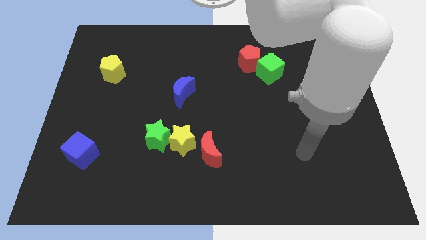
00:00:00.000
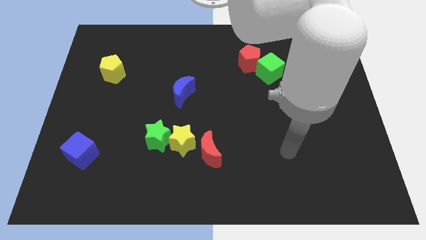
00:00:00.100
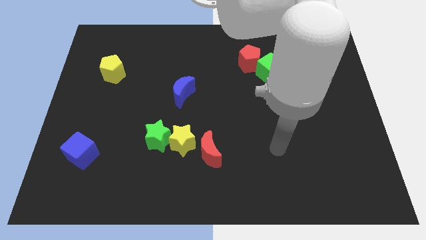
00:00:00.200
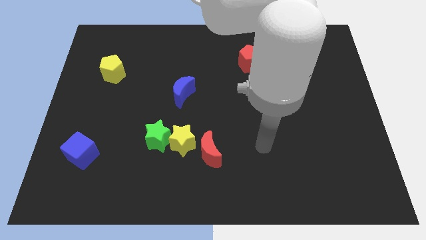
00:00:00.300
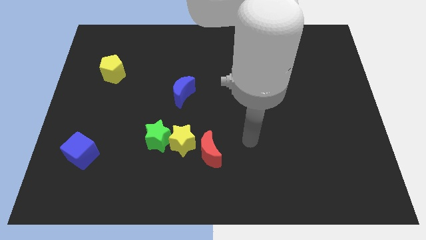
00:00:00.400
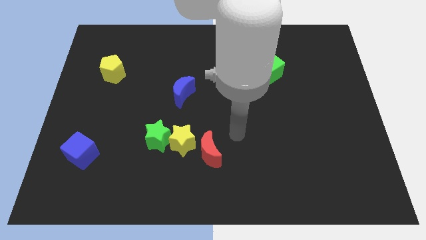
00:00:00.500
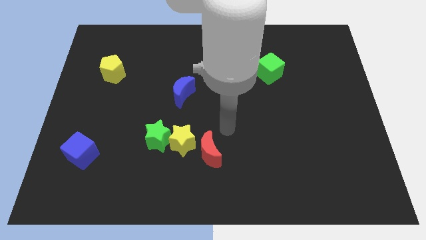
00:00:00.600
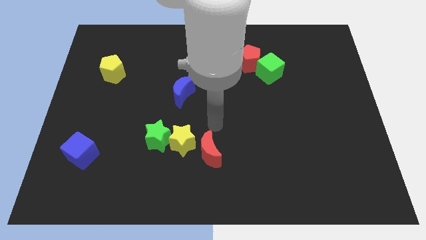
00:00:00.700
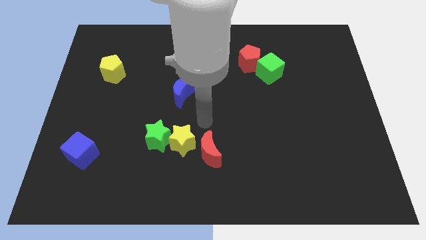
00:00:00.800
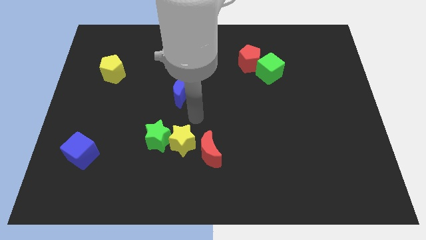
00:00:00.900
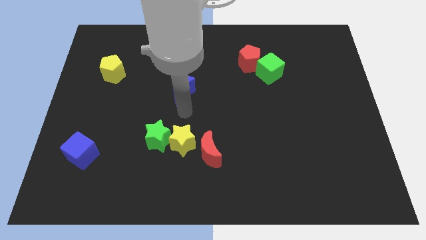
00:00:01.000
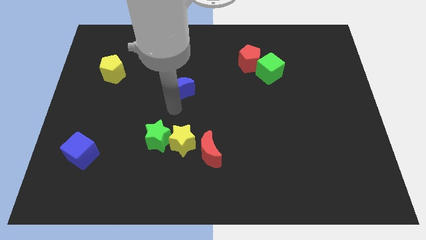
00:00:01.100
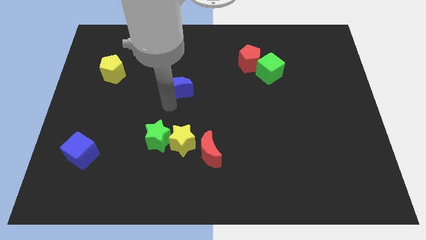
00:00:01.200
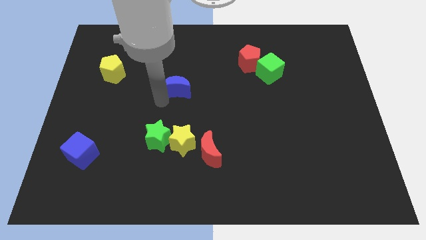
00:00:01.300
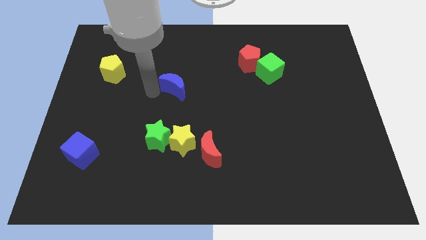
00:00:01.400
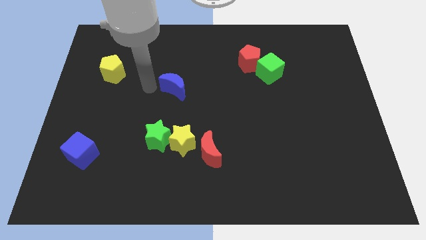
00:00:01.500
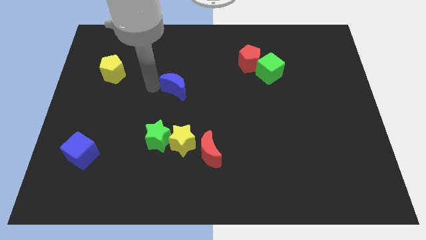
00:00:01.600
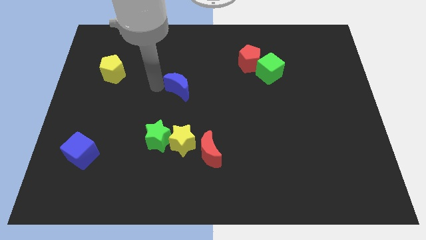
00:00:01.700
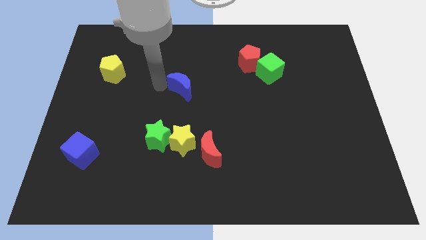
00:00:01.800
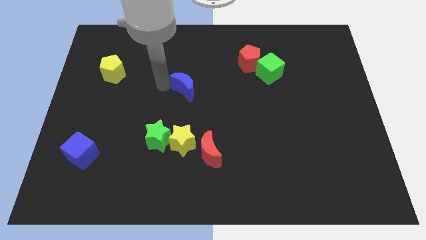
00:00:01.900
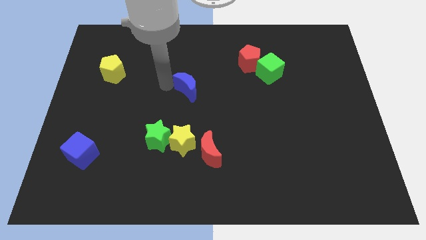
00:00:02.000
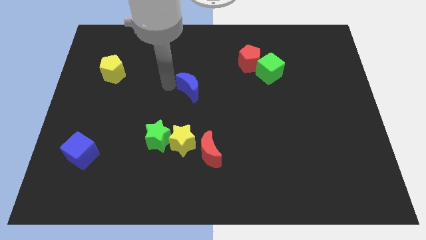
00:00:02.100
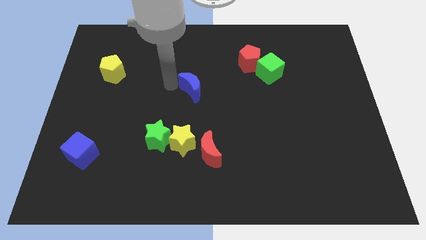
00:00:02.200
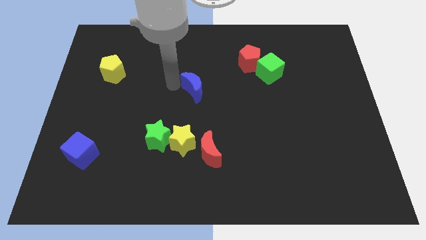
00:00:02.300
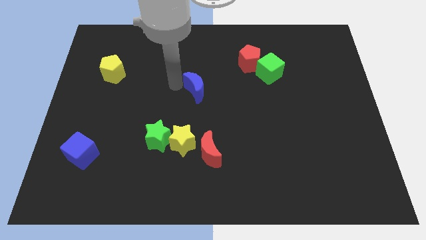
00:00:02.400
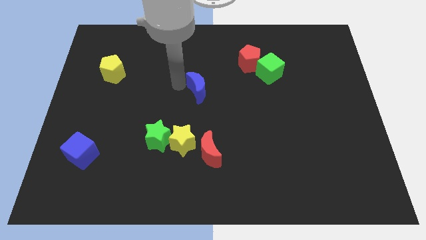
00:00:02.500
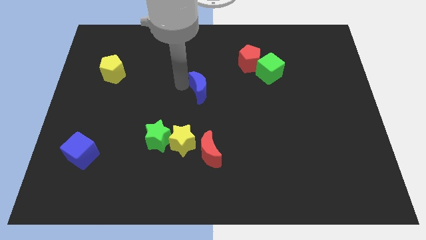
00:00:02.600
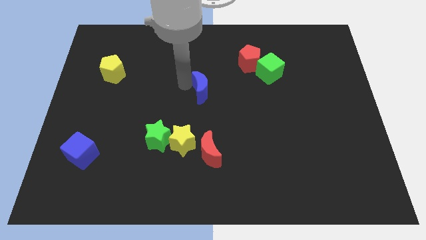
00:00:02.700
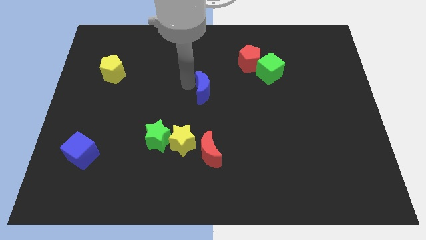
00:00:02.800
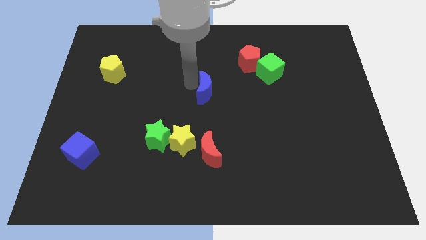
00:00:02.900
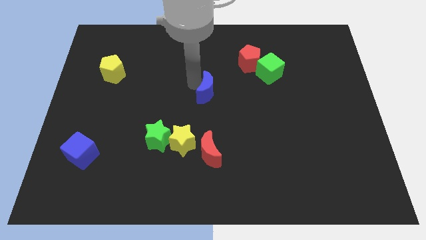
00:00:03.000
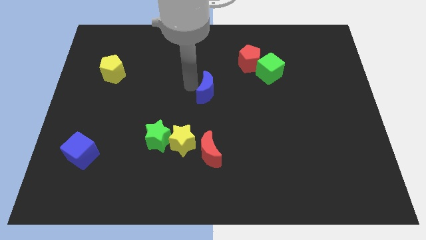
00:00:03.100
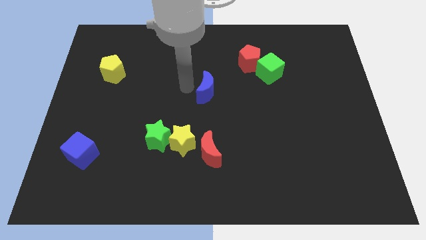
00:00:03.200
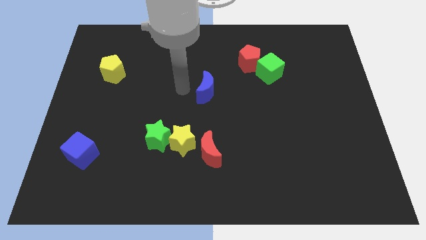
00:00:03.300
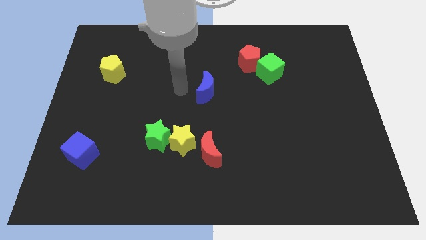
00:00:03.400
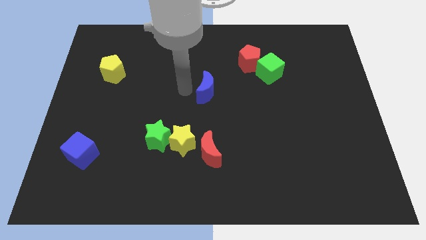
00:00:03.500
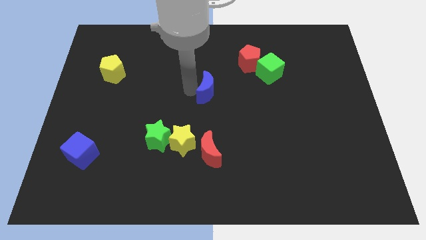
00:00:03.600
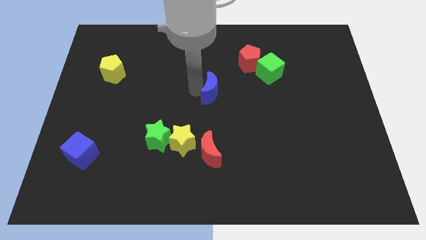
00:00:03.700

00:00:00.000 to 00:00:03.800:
slightly push the blue moon to the right

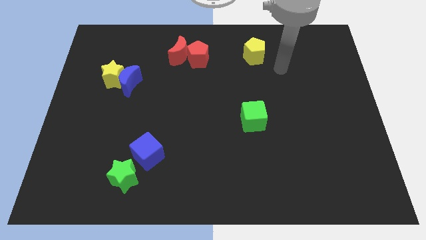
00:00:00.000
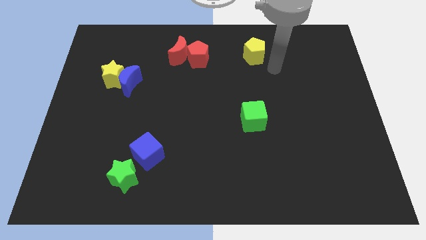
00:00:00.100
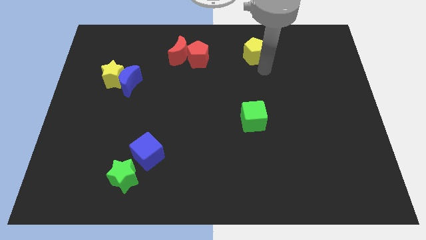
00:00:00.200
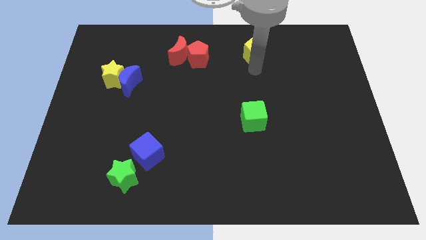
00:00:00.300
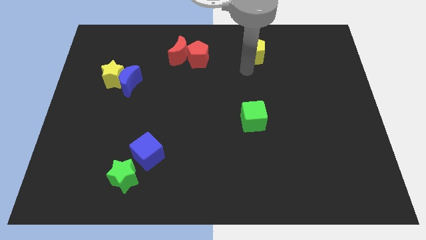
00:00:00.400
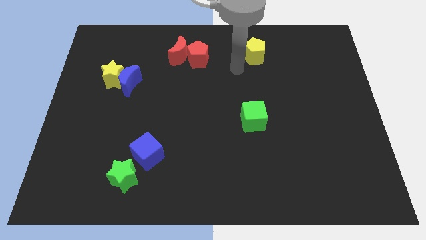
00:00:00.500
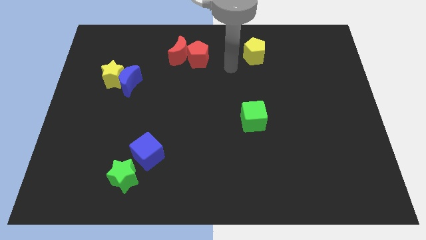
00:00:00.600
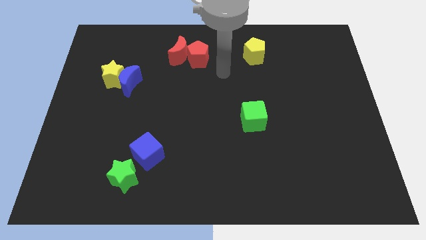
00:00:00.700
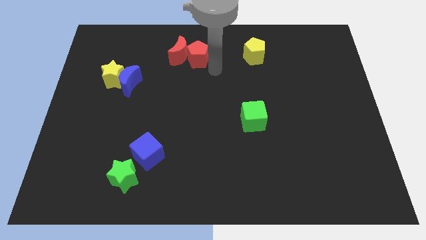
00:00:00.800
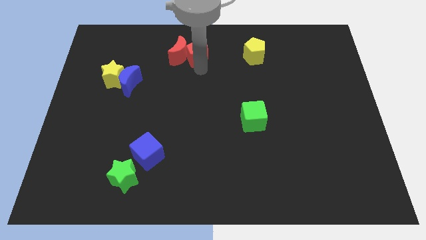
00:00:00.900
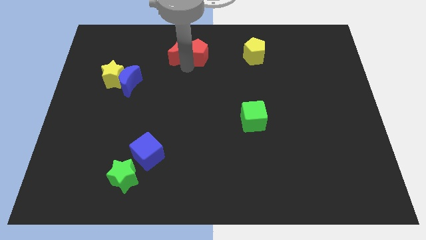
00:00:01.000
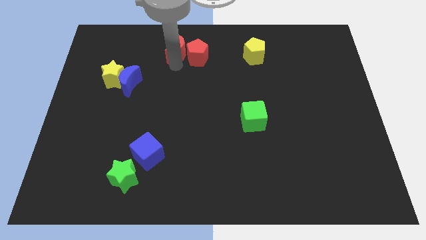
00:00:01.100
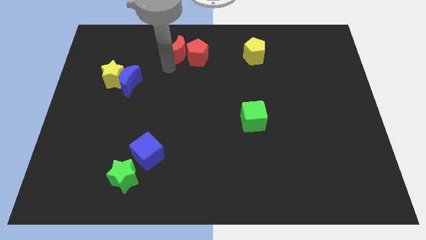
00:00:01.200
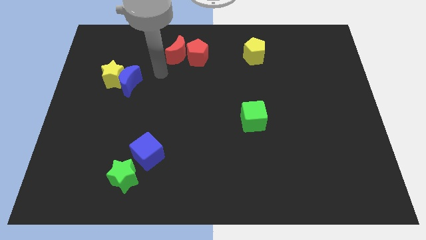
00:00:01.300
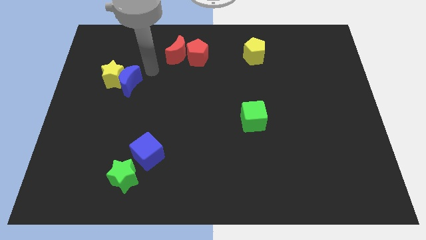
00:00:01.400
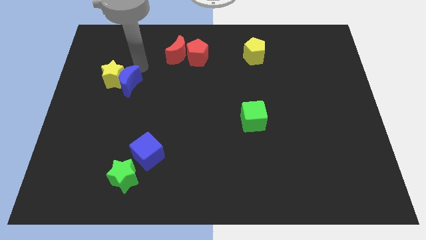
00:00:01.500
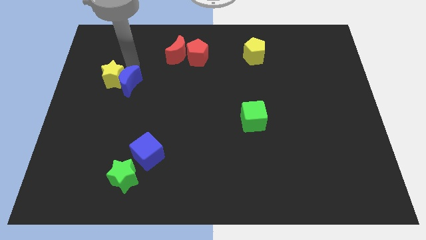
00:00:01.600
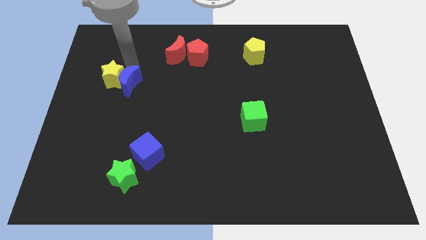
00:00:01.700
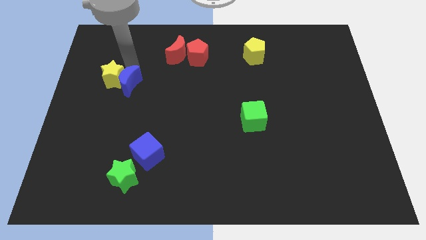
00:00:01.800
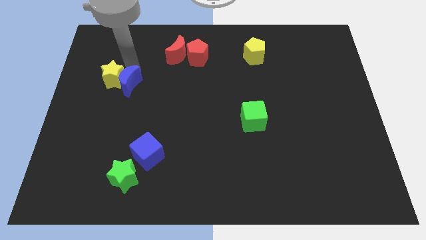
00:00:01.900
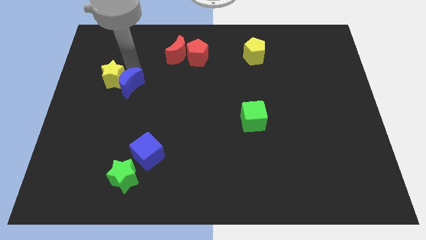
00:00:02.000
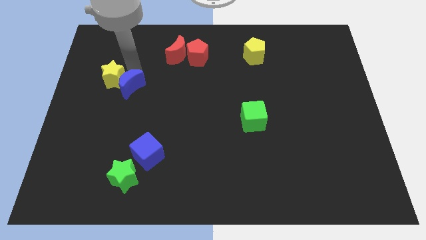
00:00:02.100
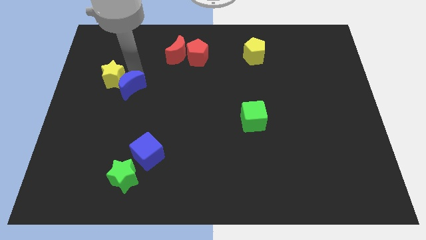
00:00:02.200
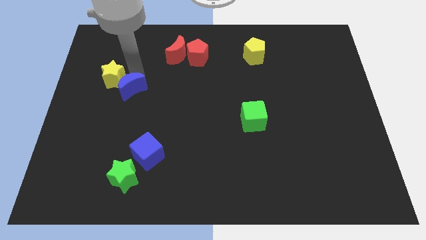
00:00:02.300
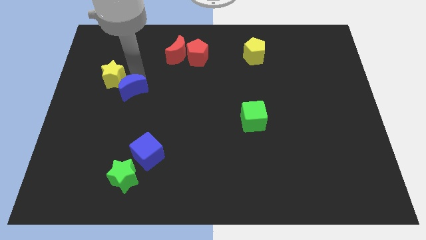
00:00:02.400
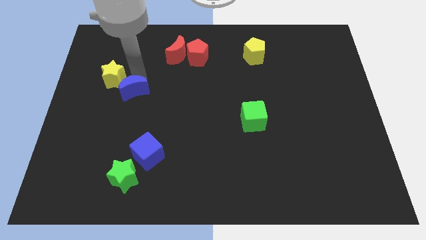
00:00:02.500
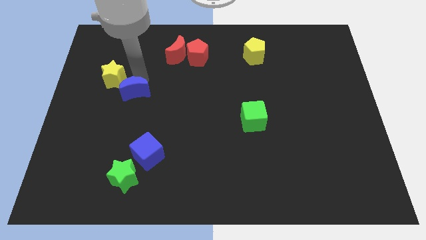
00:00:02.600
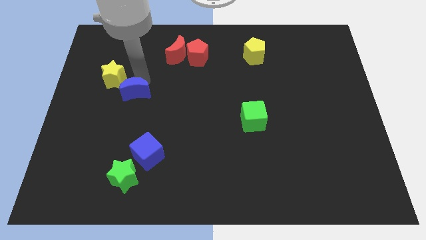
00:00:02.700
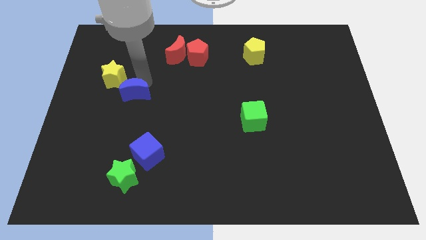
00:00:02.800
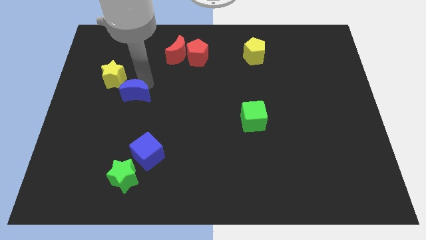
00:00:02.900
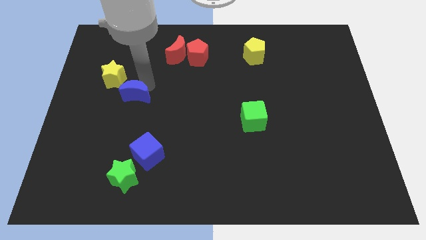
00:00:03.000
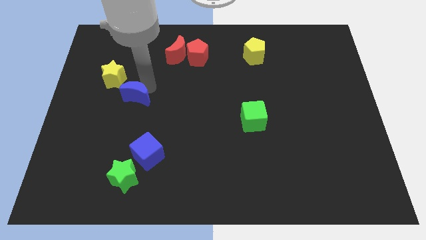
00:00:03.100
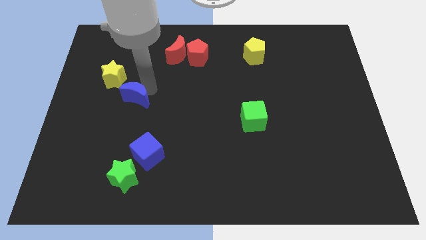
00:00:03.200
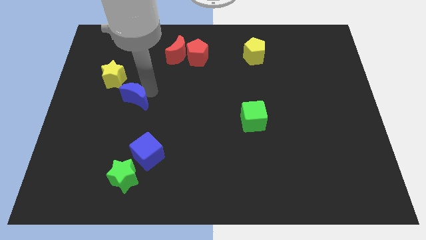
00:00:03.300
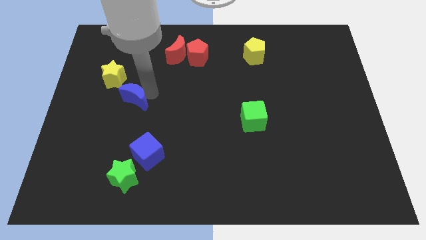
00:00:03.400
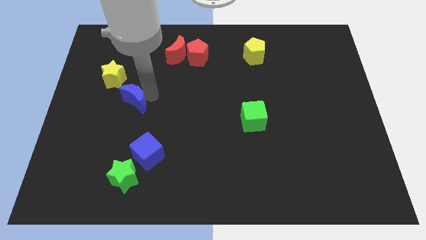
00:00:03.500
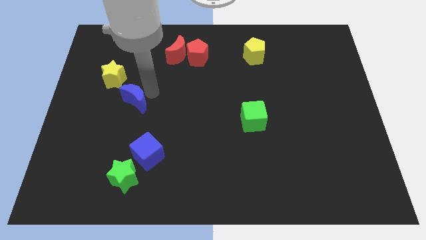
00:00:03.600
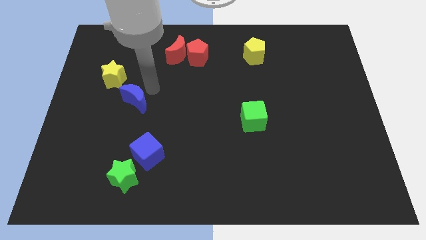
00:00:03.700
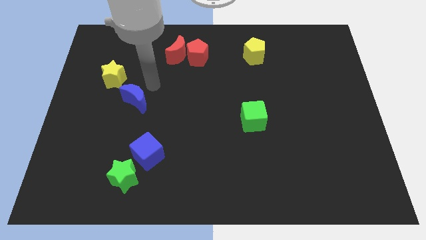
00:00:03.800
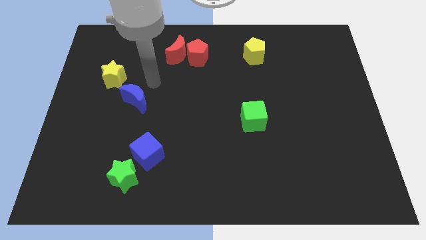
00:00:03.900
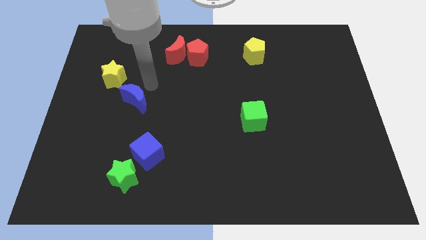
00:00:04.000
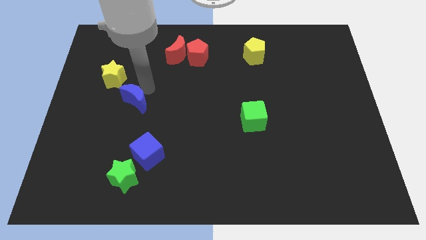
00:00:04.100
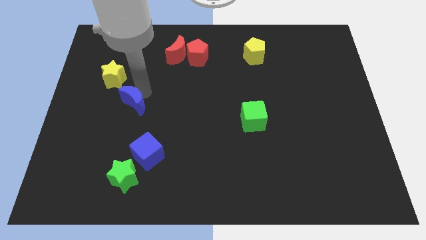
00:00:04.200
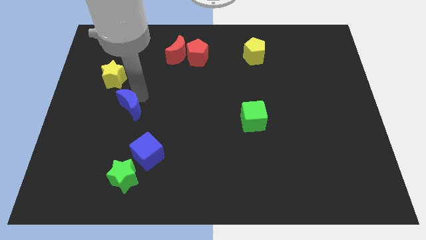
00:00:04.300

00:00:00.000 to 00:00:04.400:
move the blue moon a little bit down
